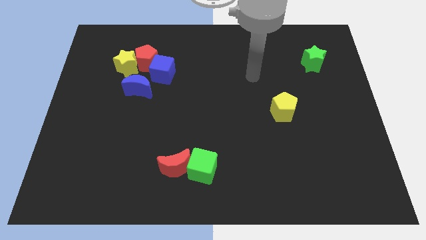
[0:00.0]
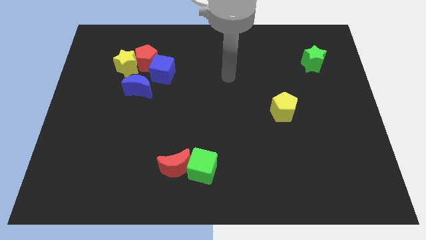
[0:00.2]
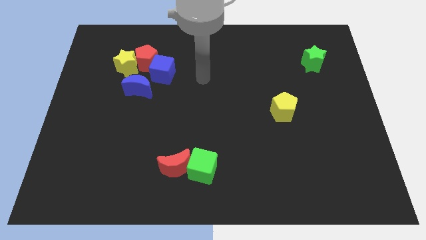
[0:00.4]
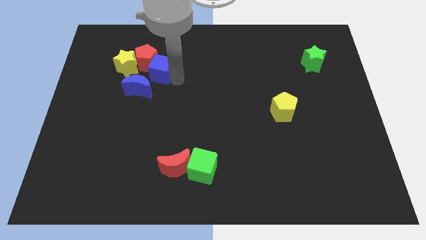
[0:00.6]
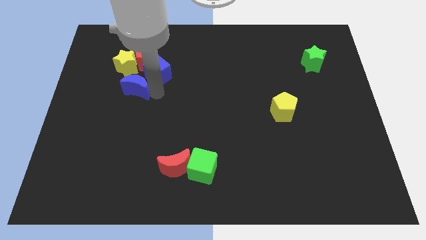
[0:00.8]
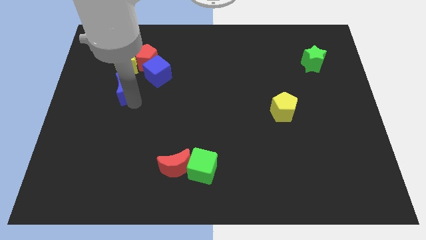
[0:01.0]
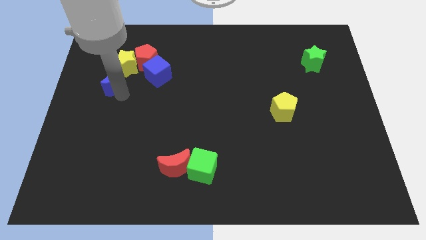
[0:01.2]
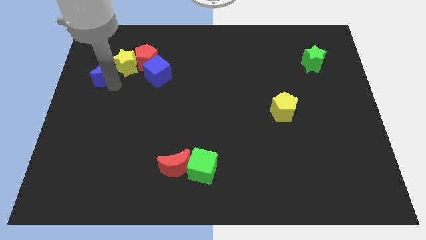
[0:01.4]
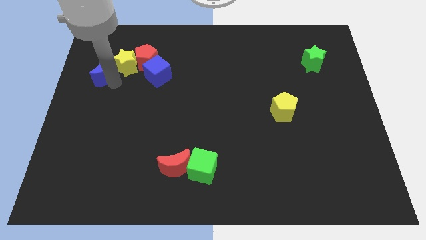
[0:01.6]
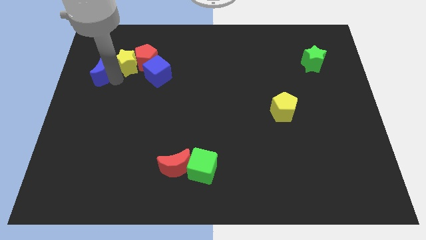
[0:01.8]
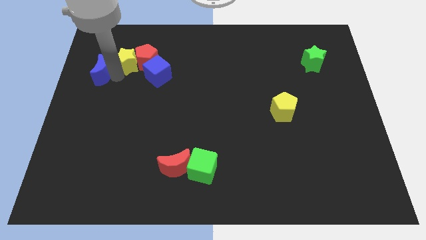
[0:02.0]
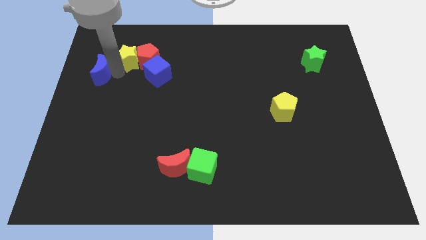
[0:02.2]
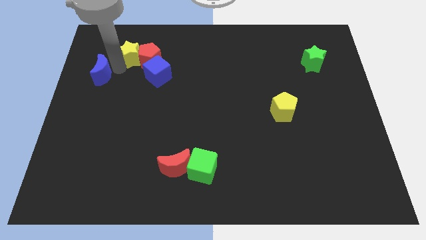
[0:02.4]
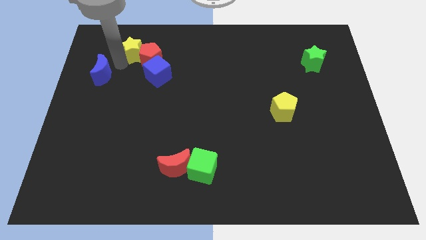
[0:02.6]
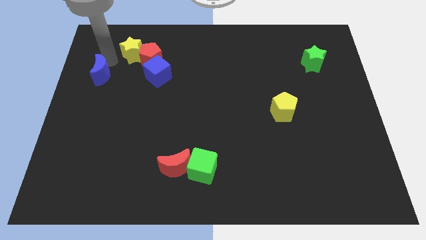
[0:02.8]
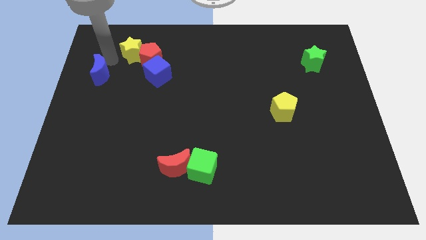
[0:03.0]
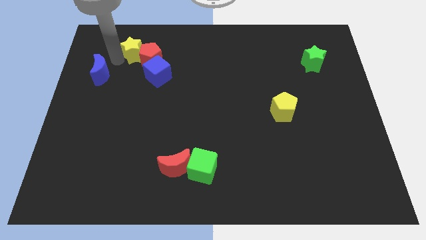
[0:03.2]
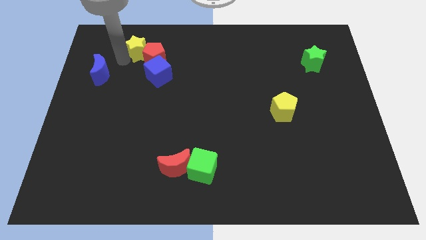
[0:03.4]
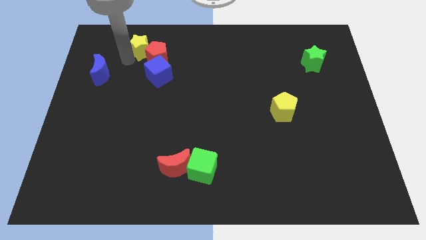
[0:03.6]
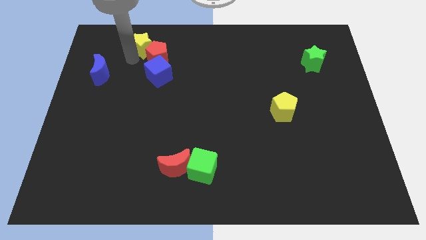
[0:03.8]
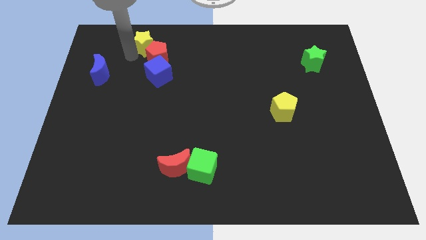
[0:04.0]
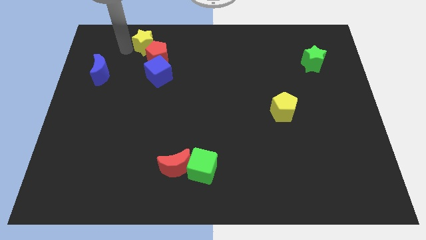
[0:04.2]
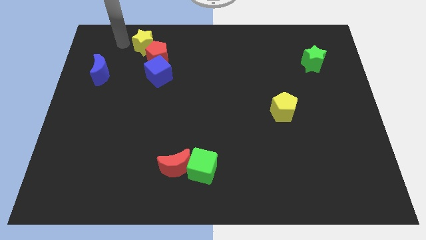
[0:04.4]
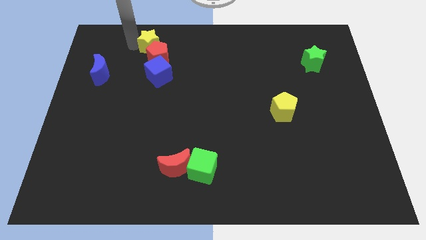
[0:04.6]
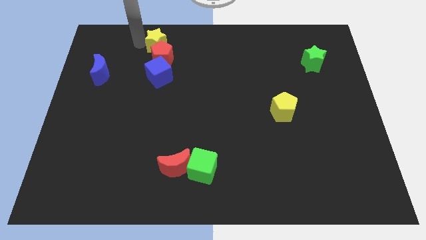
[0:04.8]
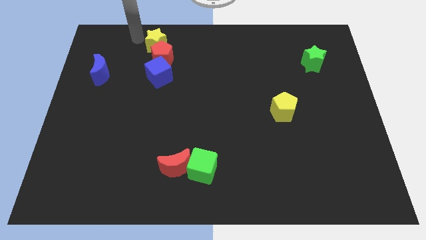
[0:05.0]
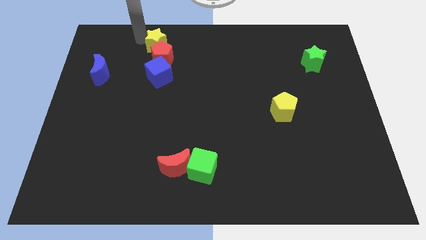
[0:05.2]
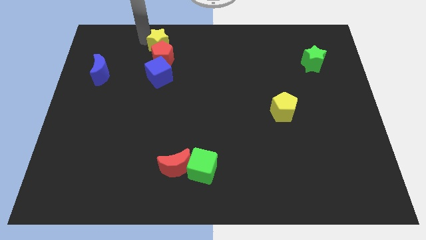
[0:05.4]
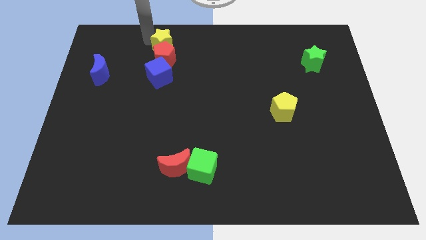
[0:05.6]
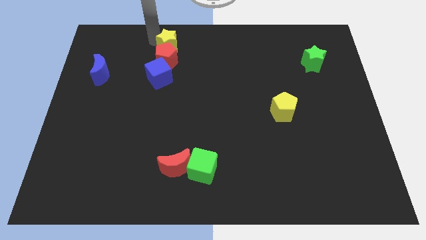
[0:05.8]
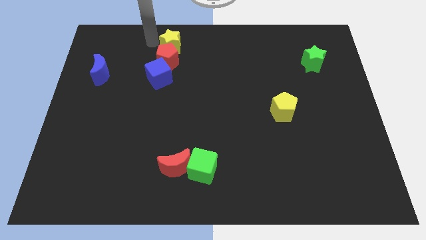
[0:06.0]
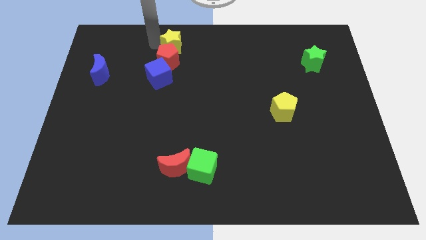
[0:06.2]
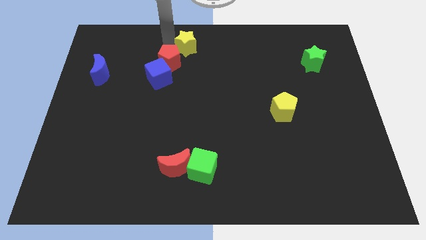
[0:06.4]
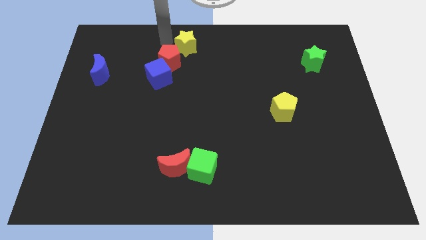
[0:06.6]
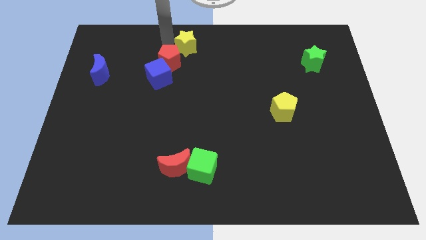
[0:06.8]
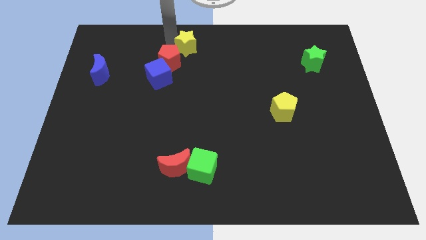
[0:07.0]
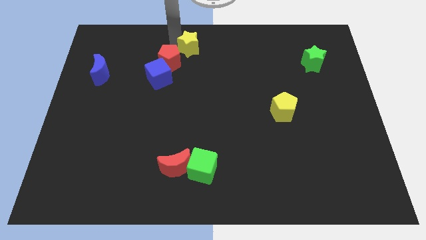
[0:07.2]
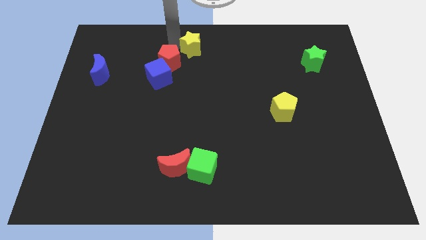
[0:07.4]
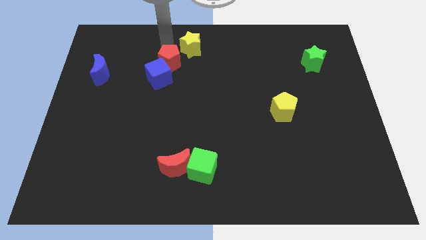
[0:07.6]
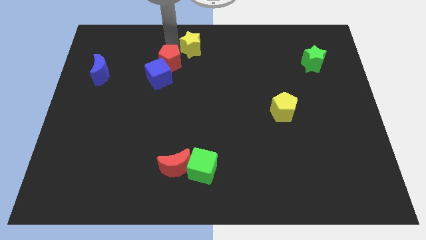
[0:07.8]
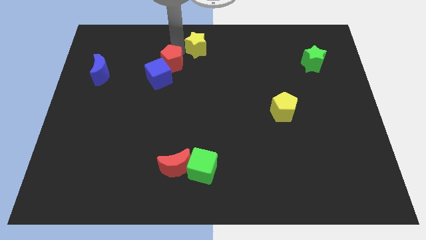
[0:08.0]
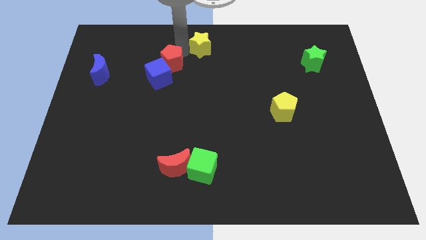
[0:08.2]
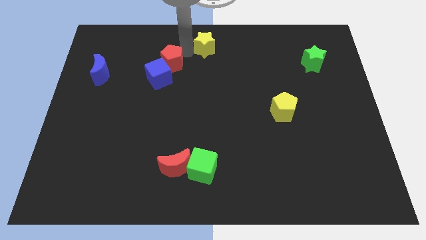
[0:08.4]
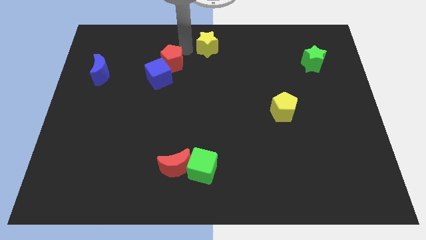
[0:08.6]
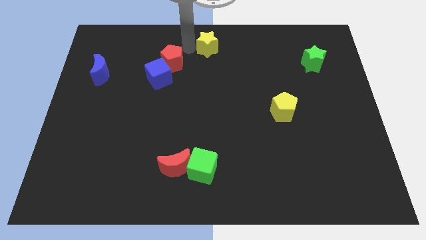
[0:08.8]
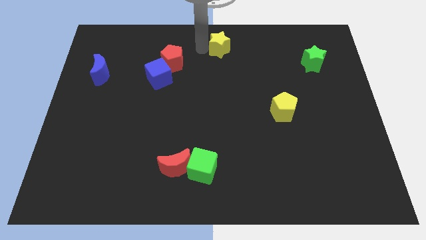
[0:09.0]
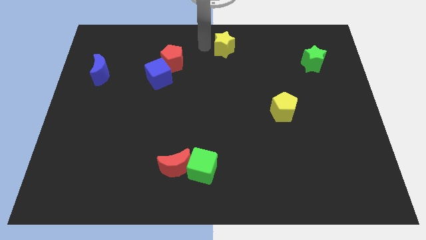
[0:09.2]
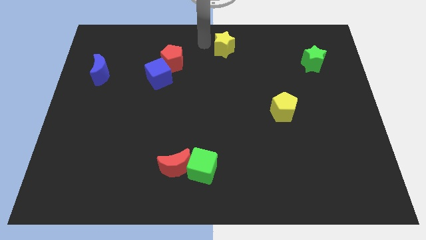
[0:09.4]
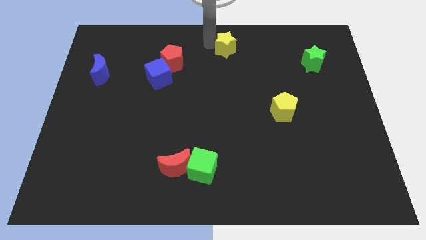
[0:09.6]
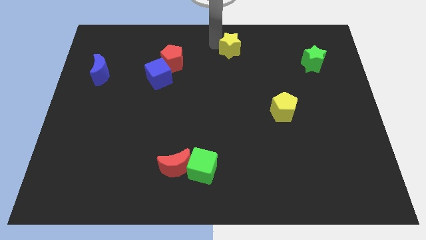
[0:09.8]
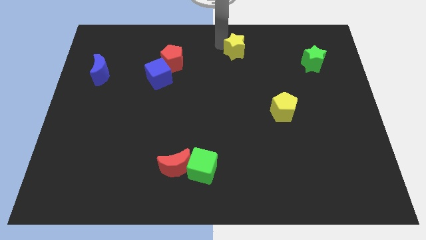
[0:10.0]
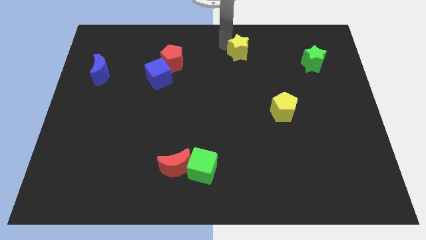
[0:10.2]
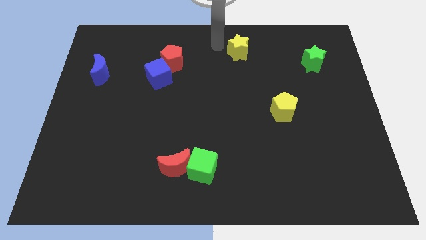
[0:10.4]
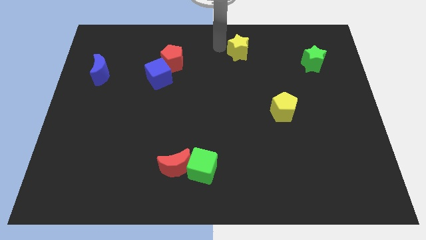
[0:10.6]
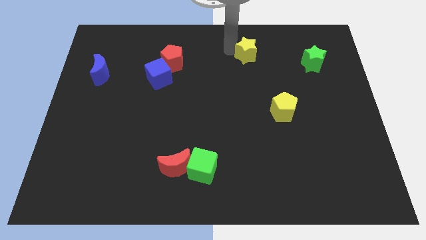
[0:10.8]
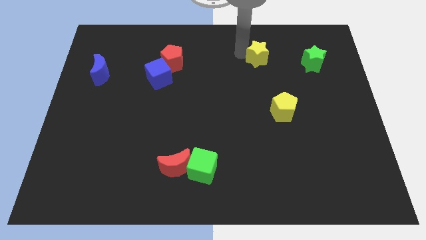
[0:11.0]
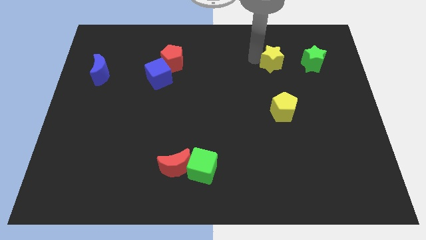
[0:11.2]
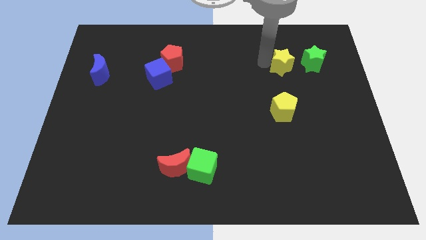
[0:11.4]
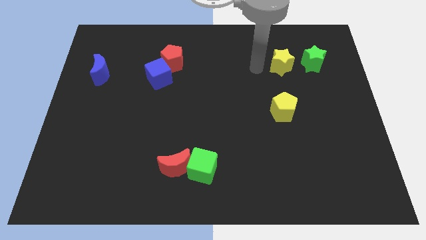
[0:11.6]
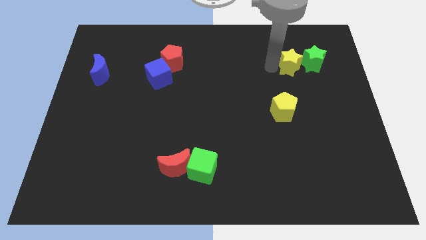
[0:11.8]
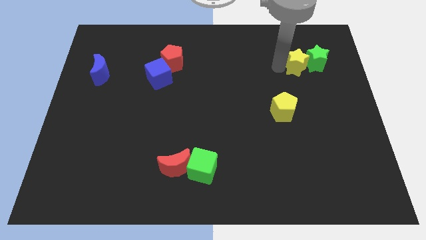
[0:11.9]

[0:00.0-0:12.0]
put the yellow star close to the green star

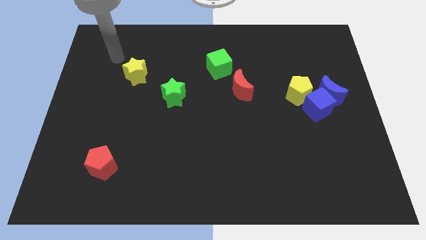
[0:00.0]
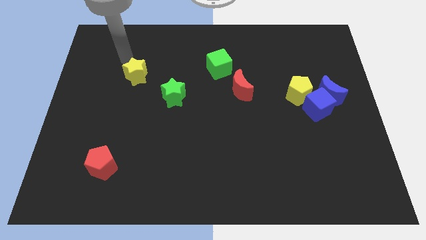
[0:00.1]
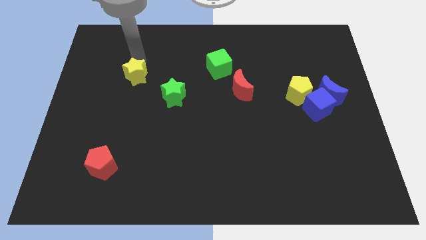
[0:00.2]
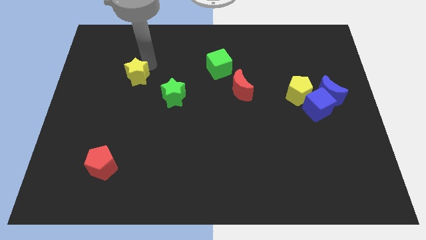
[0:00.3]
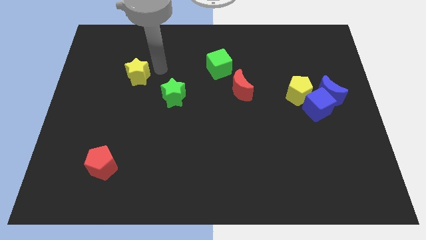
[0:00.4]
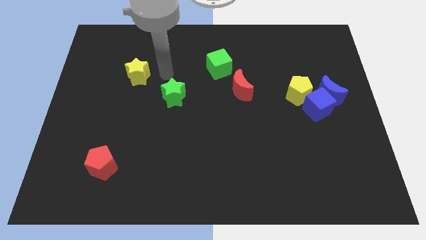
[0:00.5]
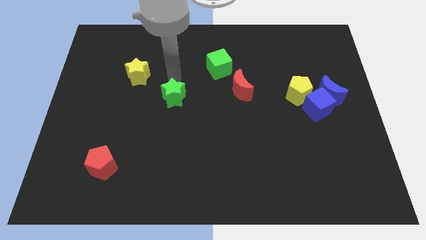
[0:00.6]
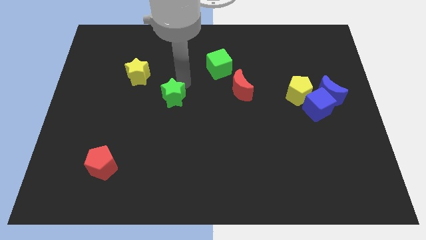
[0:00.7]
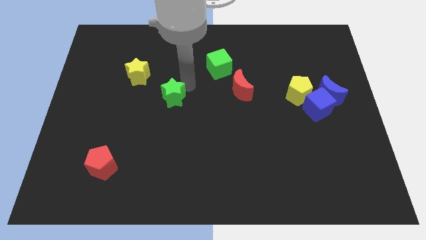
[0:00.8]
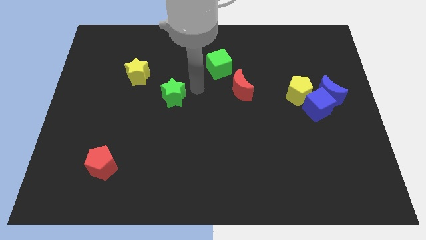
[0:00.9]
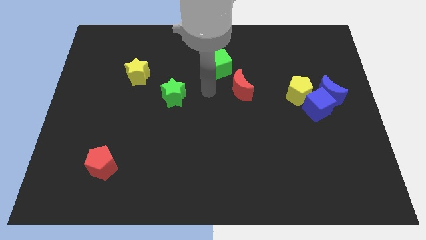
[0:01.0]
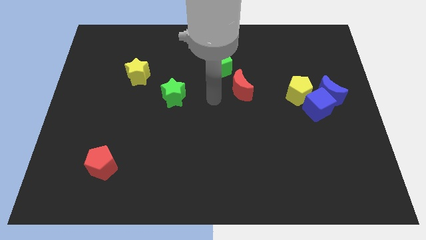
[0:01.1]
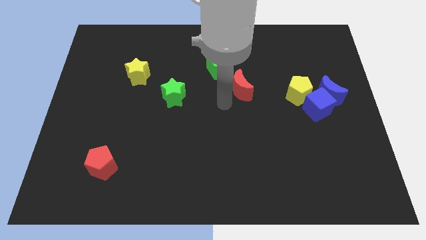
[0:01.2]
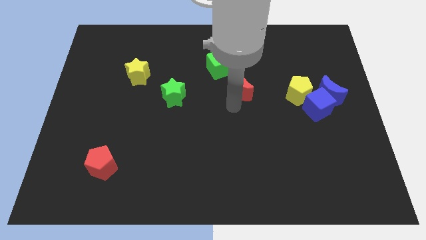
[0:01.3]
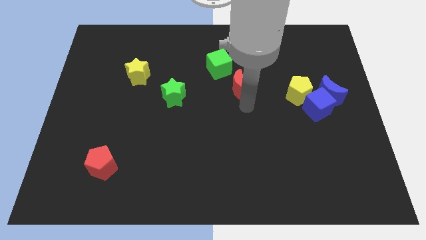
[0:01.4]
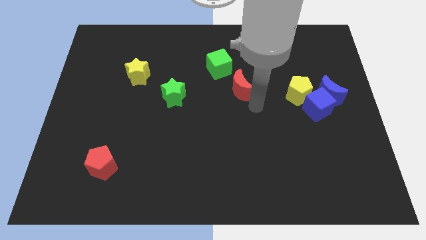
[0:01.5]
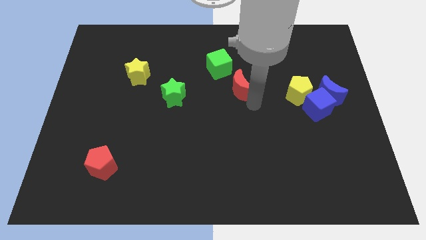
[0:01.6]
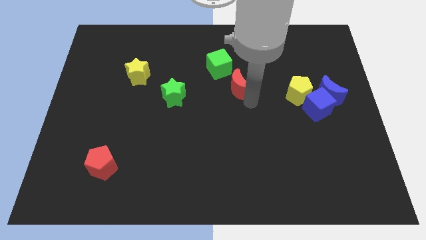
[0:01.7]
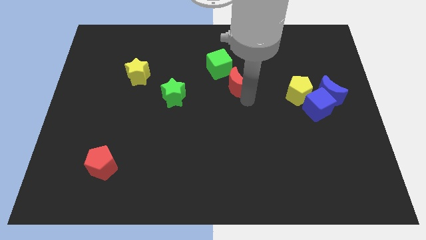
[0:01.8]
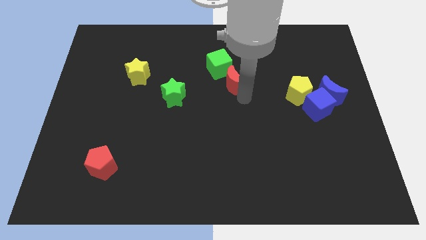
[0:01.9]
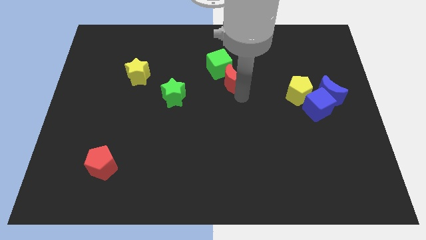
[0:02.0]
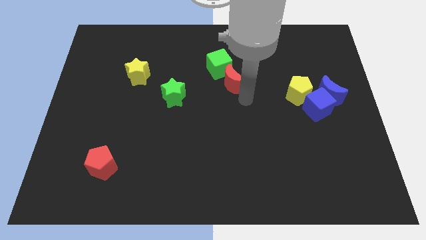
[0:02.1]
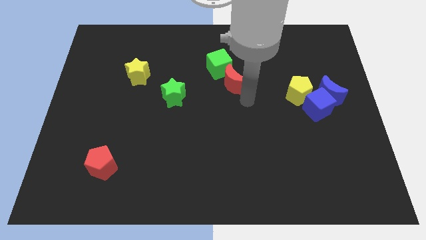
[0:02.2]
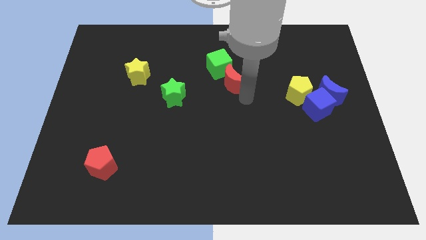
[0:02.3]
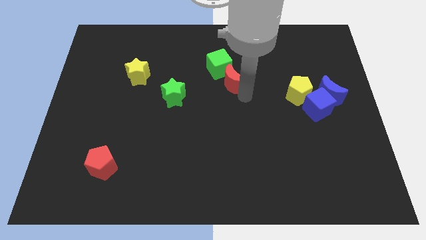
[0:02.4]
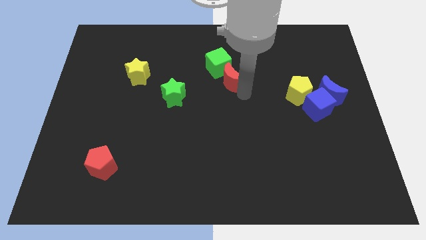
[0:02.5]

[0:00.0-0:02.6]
put the red moon close to the green cube
